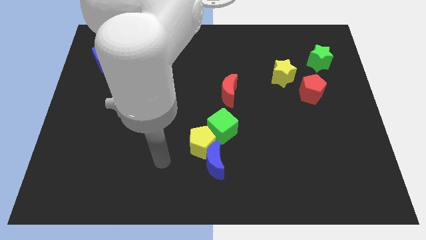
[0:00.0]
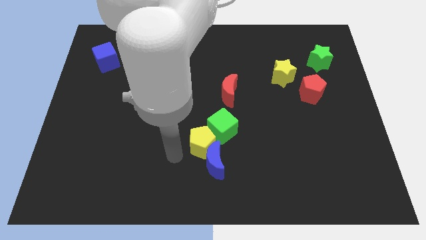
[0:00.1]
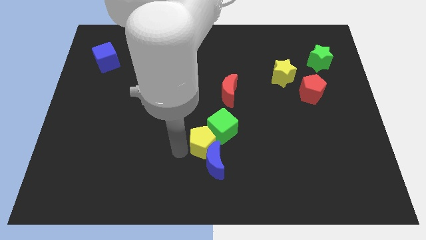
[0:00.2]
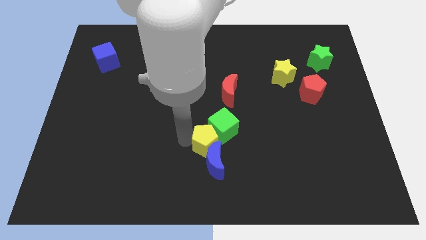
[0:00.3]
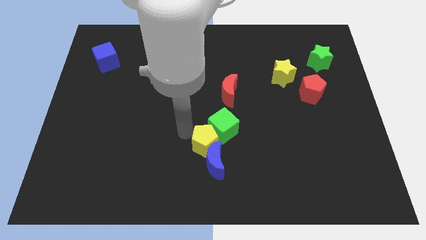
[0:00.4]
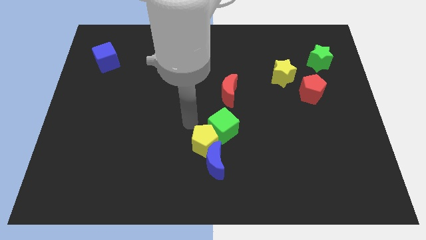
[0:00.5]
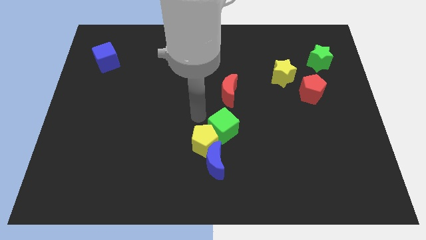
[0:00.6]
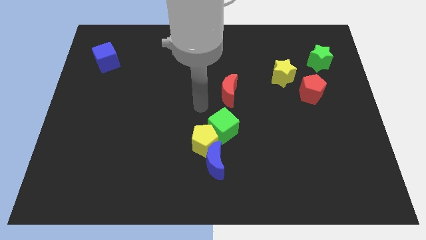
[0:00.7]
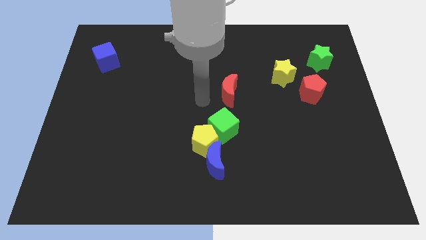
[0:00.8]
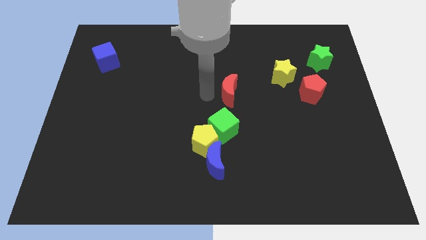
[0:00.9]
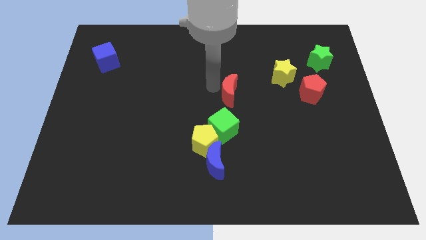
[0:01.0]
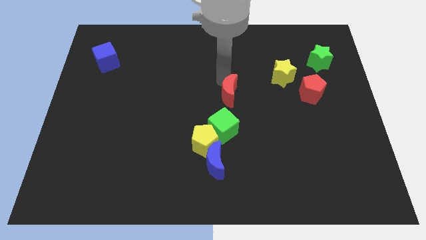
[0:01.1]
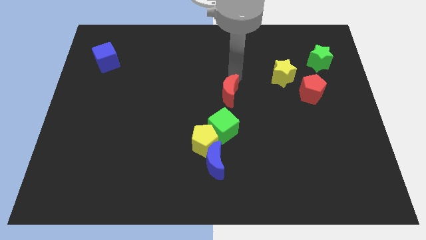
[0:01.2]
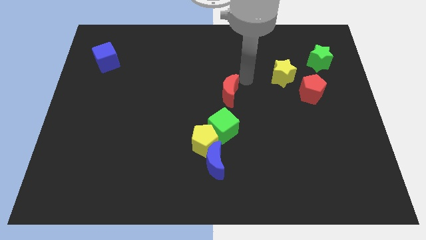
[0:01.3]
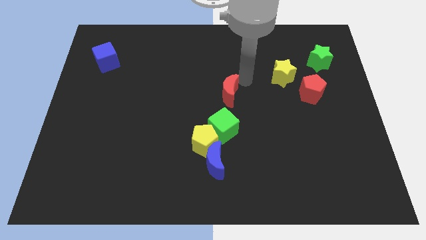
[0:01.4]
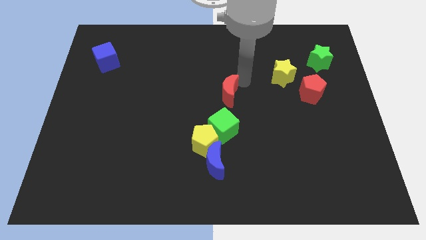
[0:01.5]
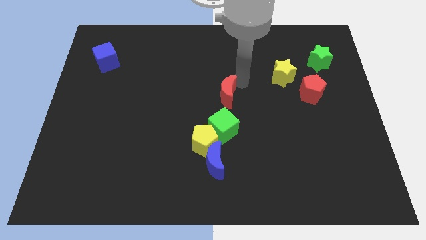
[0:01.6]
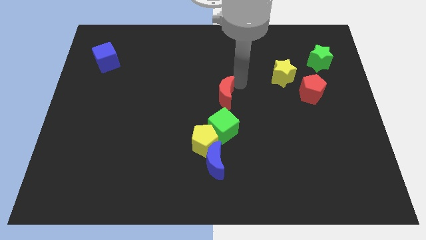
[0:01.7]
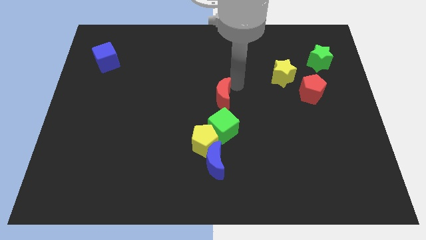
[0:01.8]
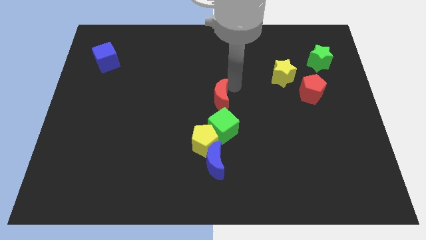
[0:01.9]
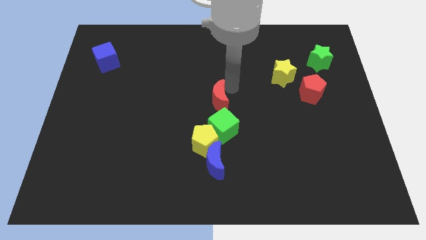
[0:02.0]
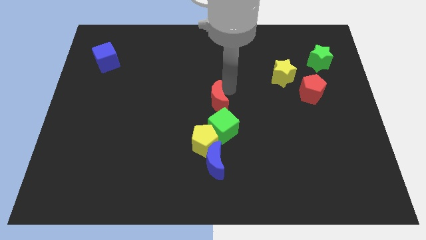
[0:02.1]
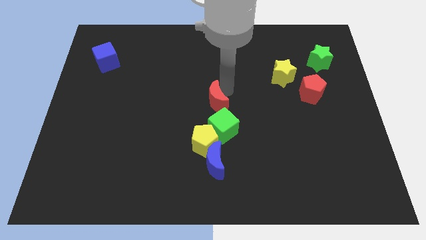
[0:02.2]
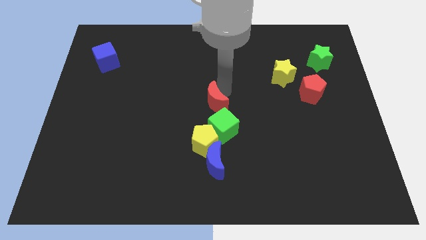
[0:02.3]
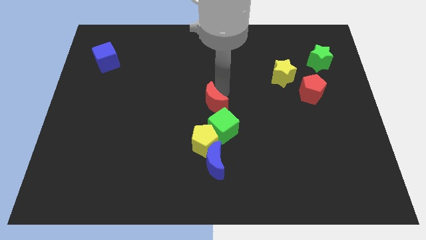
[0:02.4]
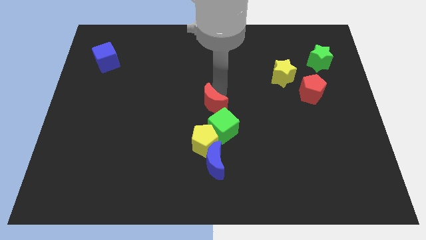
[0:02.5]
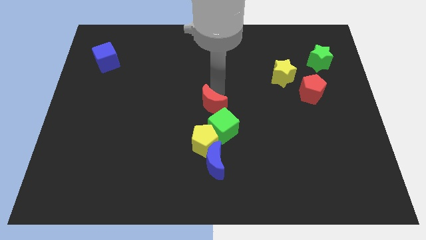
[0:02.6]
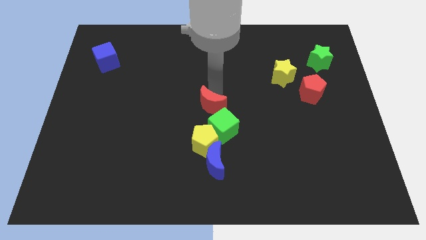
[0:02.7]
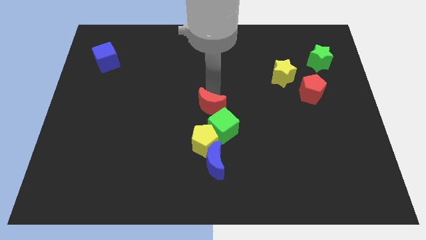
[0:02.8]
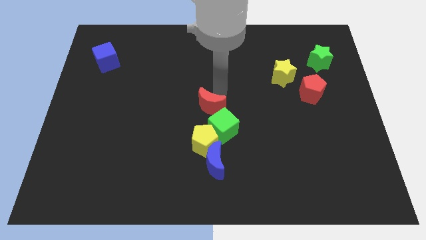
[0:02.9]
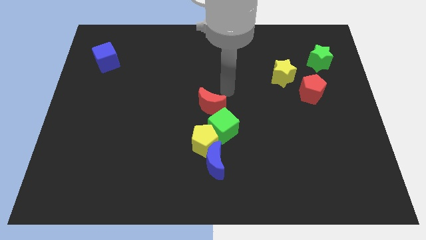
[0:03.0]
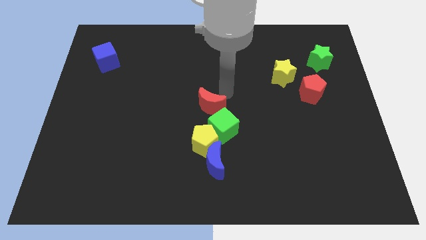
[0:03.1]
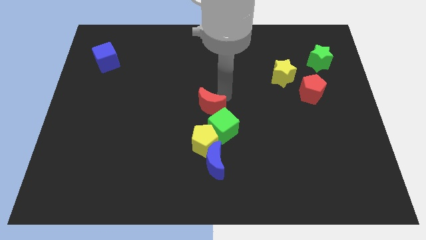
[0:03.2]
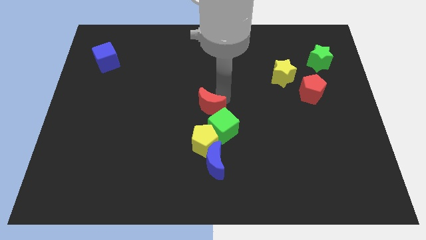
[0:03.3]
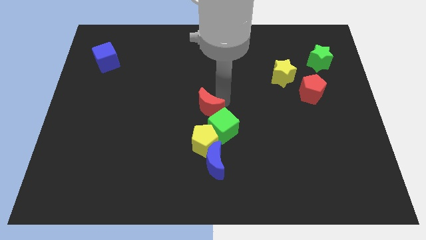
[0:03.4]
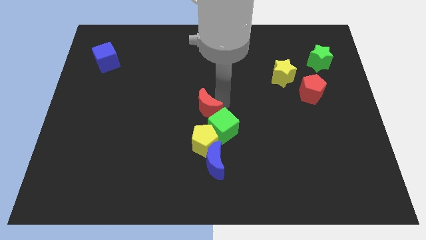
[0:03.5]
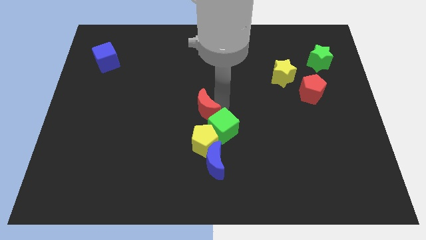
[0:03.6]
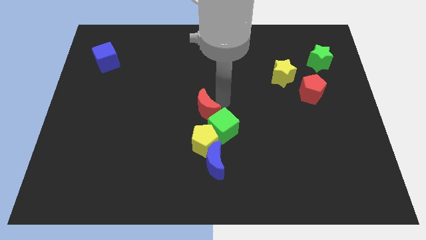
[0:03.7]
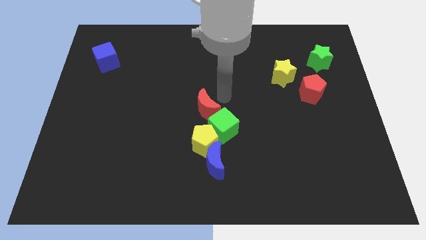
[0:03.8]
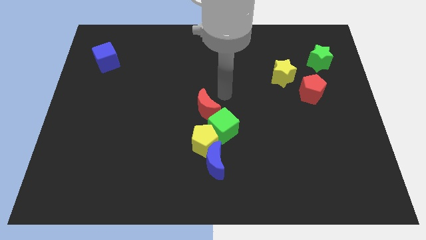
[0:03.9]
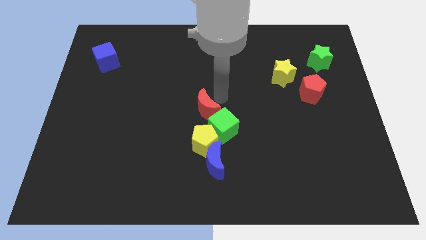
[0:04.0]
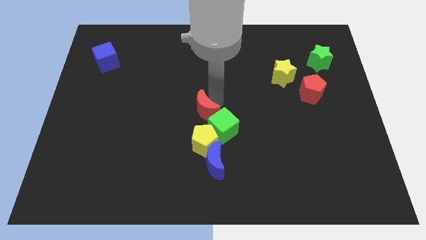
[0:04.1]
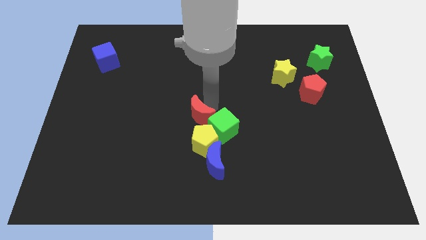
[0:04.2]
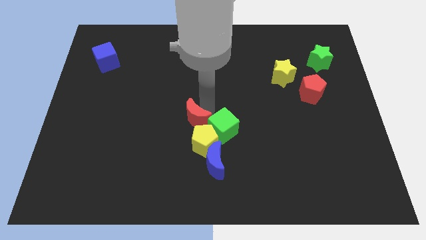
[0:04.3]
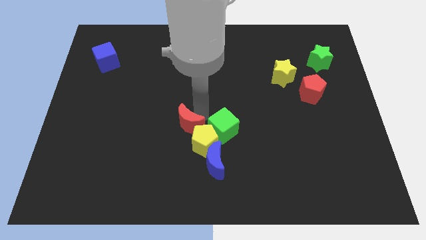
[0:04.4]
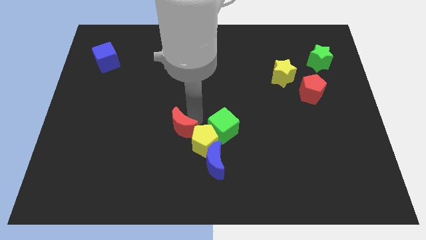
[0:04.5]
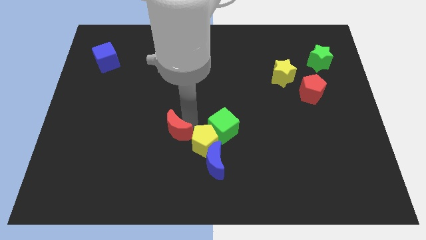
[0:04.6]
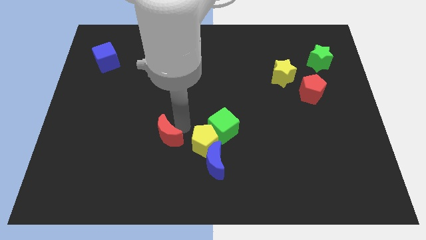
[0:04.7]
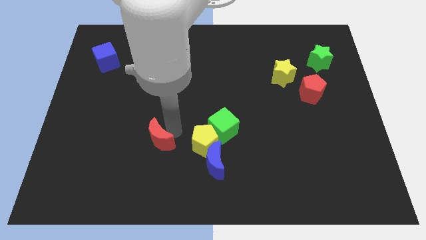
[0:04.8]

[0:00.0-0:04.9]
push the red moon diagonally downwards and to the left

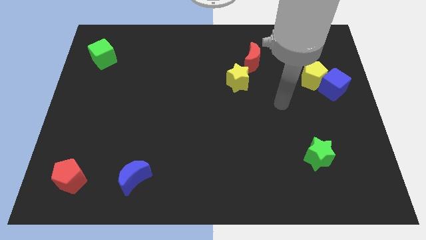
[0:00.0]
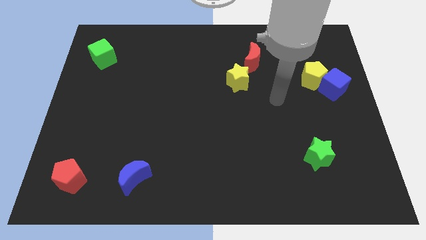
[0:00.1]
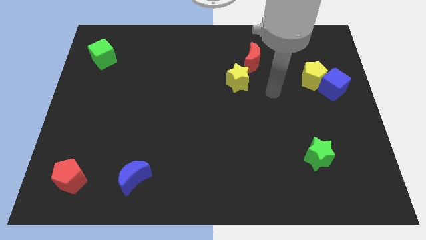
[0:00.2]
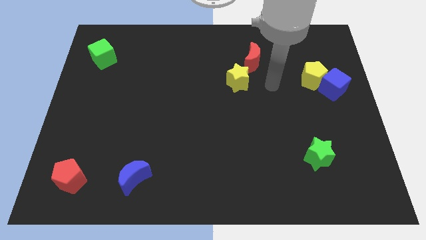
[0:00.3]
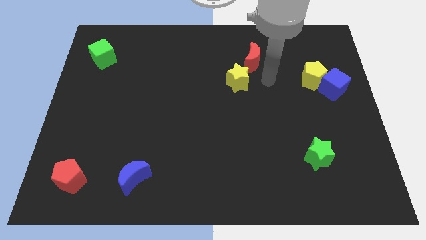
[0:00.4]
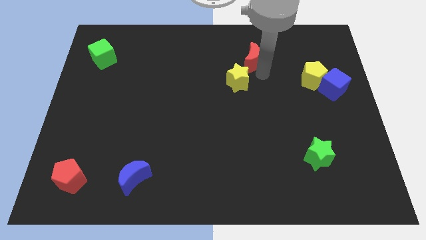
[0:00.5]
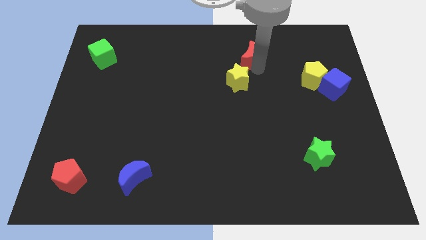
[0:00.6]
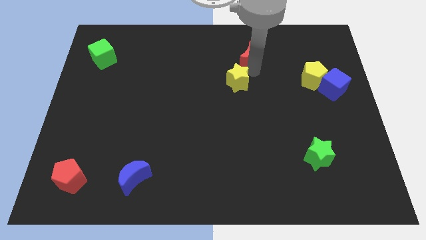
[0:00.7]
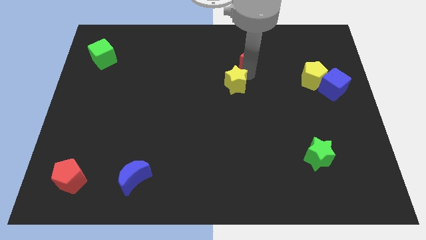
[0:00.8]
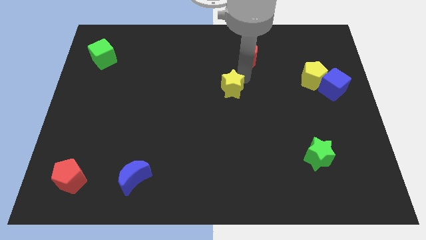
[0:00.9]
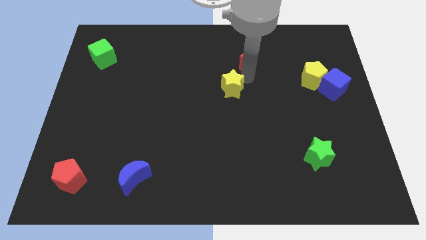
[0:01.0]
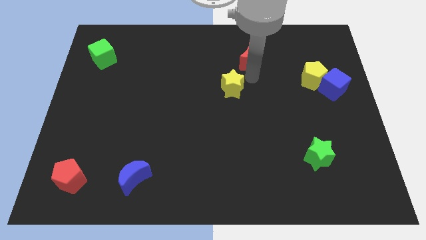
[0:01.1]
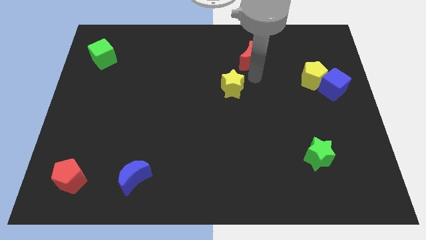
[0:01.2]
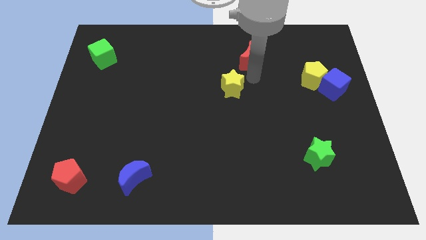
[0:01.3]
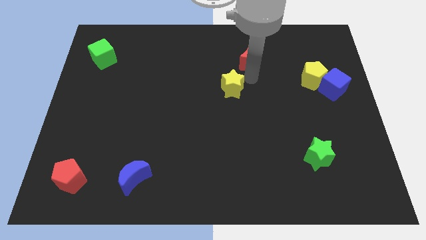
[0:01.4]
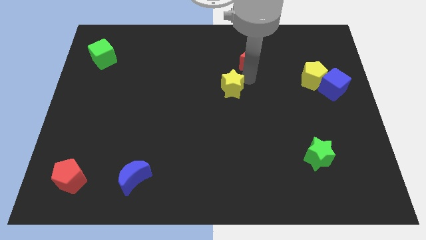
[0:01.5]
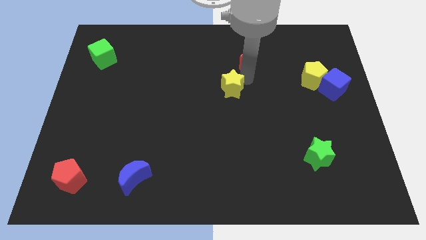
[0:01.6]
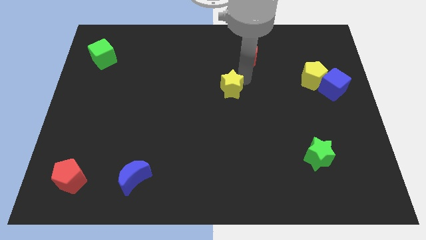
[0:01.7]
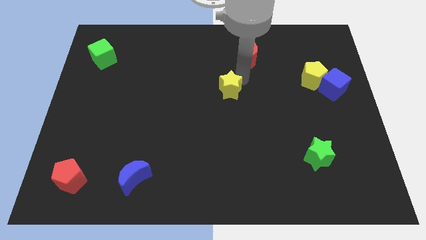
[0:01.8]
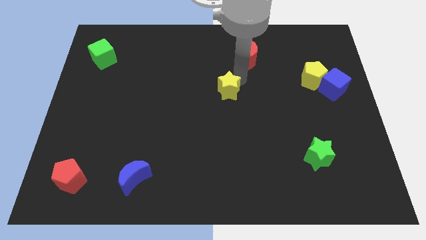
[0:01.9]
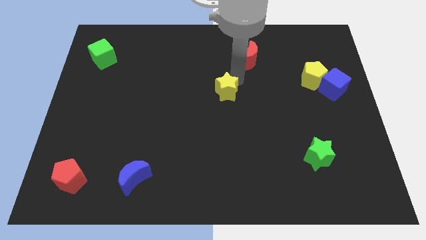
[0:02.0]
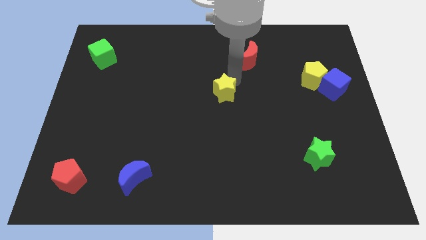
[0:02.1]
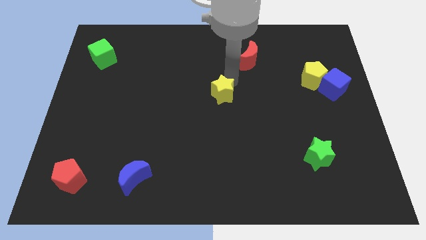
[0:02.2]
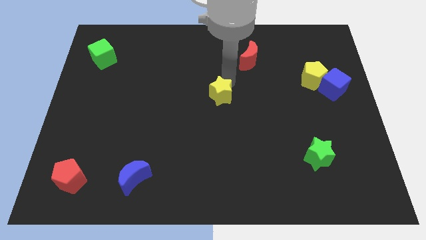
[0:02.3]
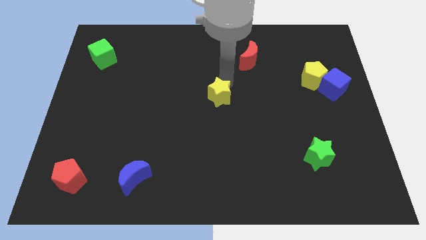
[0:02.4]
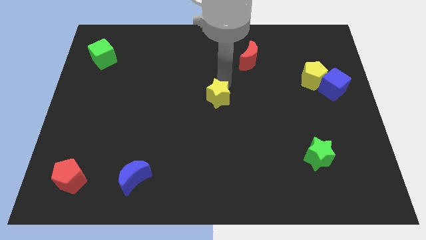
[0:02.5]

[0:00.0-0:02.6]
move the yellow star a little bit down and then to the left
